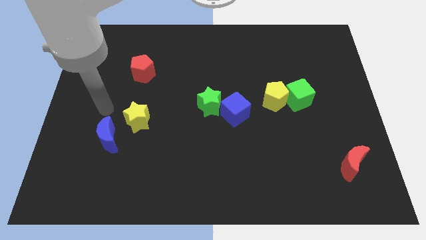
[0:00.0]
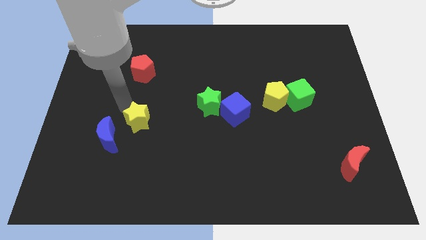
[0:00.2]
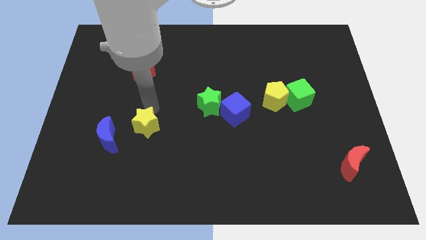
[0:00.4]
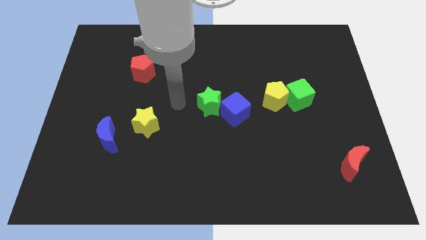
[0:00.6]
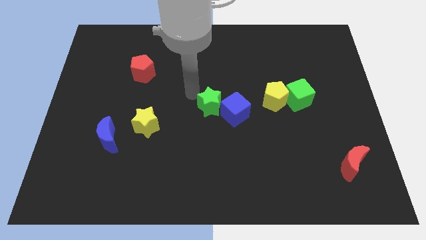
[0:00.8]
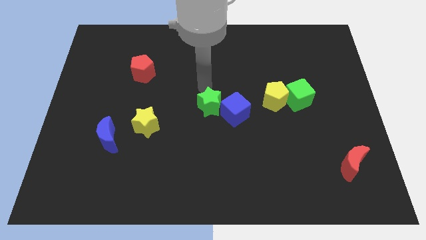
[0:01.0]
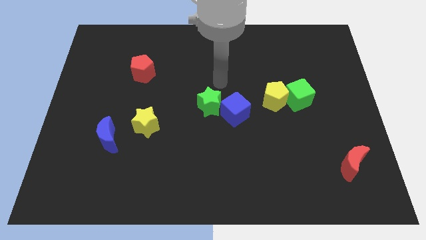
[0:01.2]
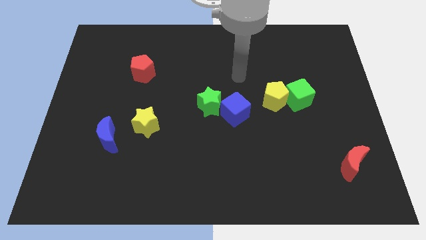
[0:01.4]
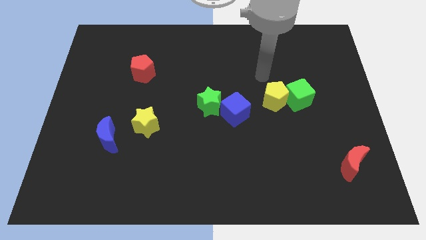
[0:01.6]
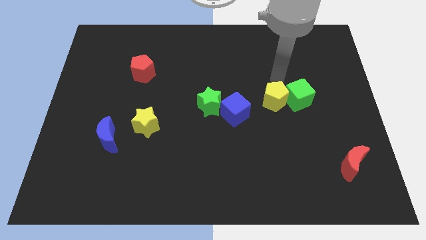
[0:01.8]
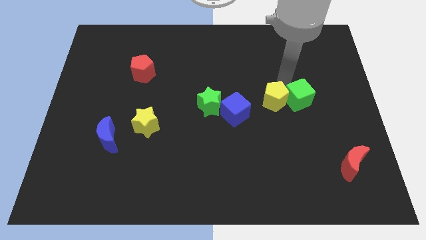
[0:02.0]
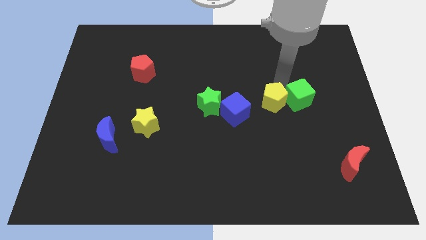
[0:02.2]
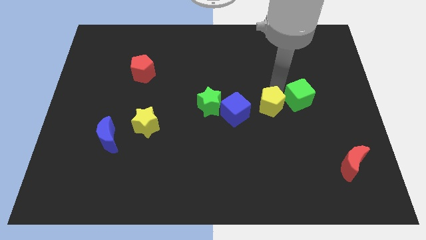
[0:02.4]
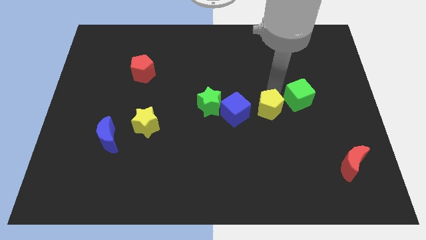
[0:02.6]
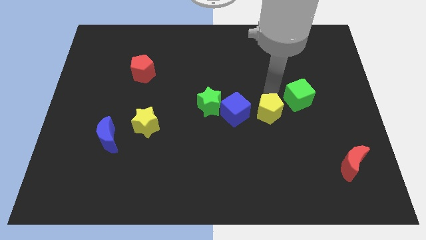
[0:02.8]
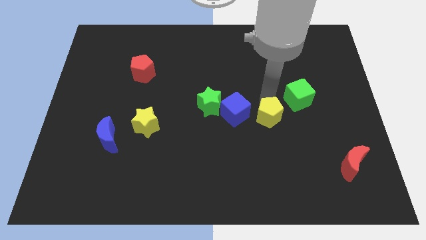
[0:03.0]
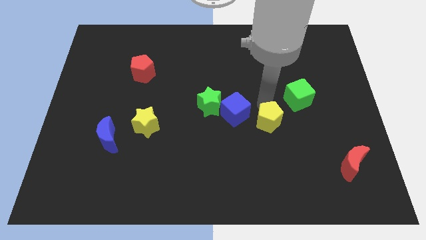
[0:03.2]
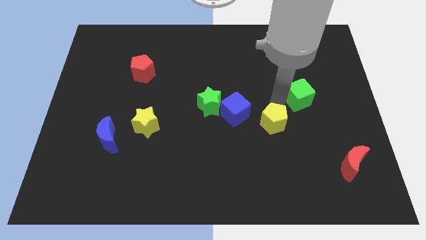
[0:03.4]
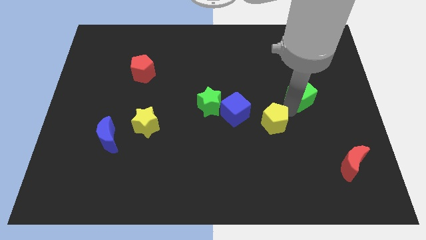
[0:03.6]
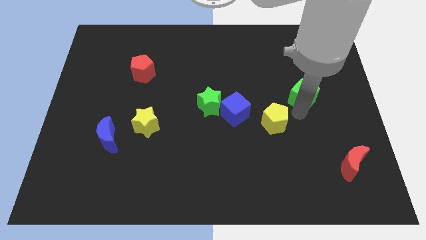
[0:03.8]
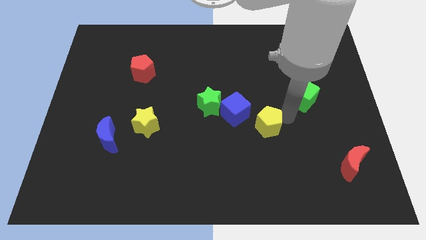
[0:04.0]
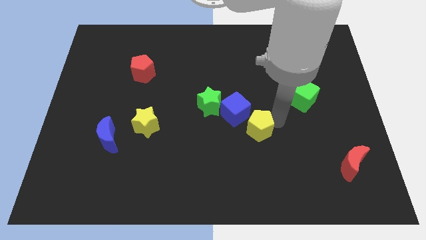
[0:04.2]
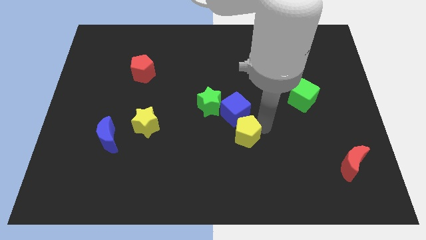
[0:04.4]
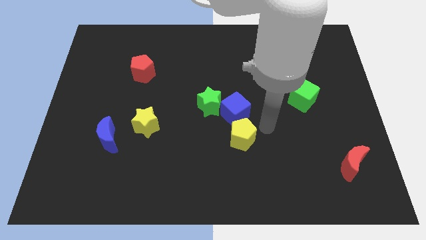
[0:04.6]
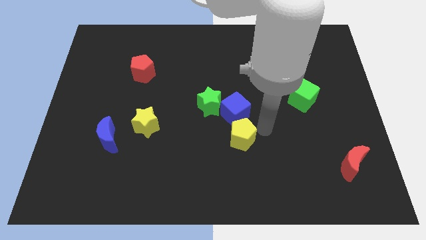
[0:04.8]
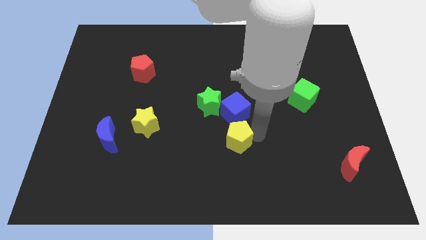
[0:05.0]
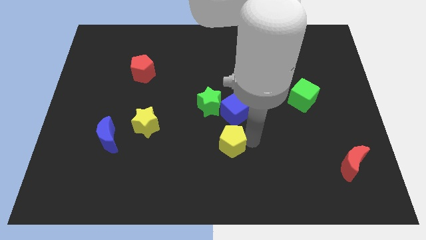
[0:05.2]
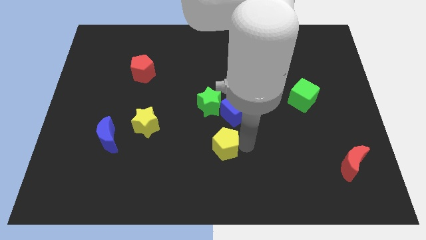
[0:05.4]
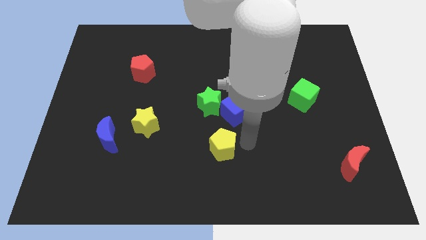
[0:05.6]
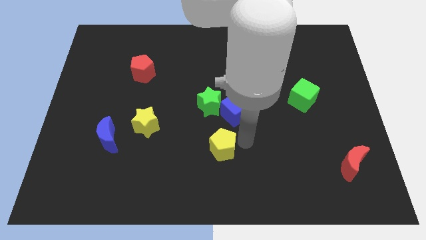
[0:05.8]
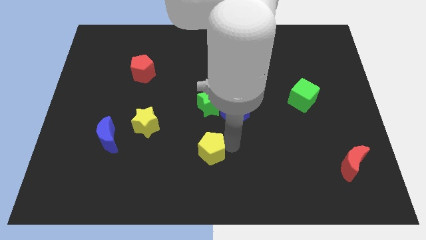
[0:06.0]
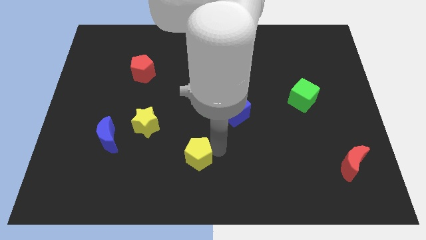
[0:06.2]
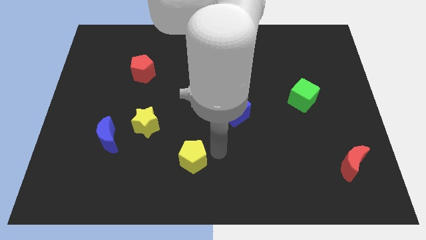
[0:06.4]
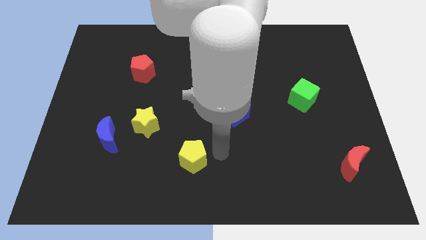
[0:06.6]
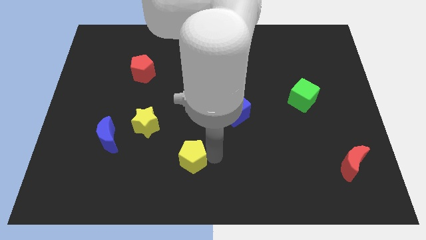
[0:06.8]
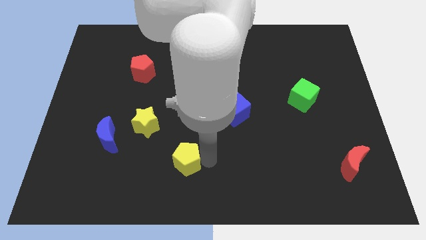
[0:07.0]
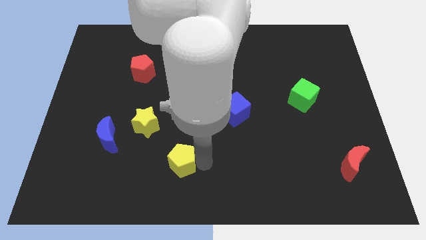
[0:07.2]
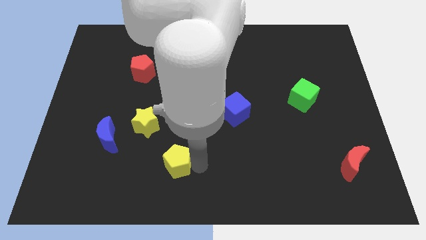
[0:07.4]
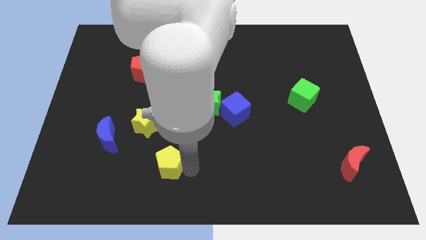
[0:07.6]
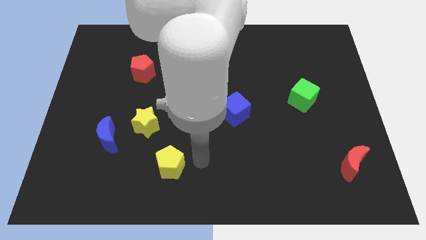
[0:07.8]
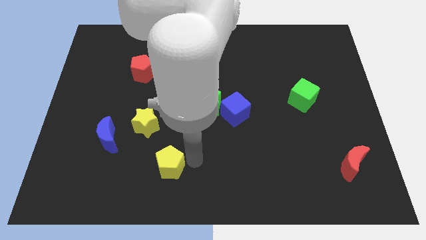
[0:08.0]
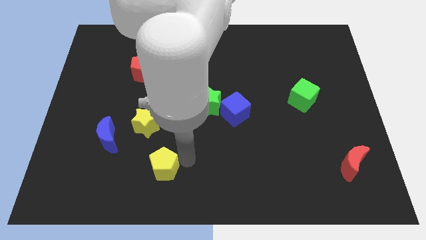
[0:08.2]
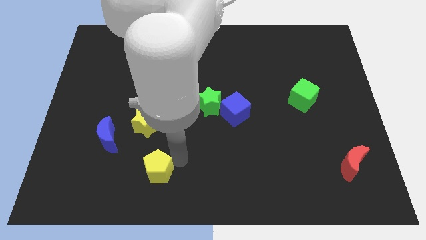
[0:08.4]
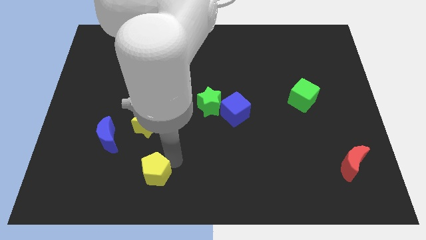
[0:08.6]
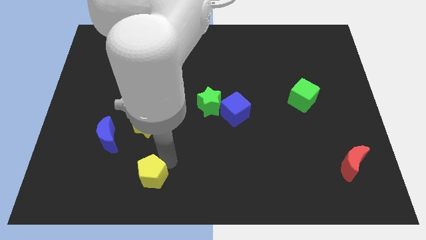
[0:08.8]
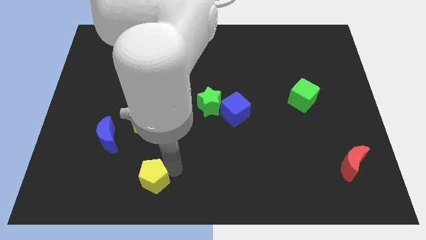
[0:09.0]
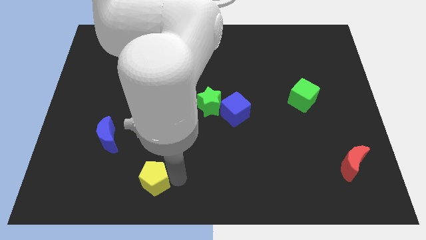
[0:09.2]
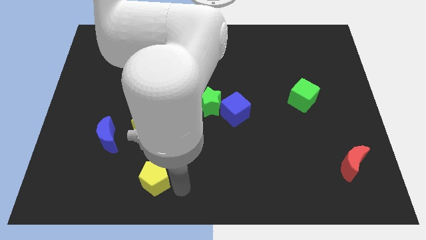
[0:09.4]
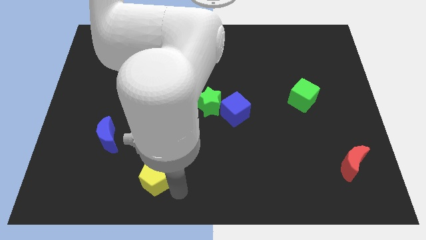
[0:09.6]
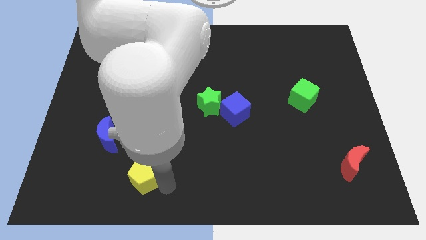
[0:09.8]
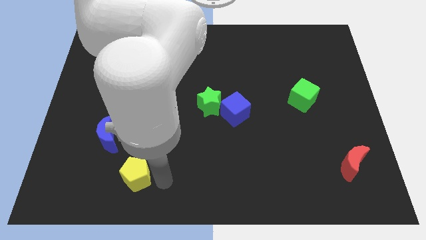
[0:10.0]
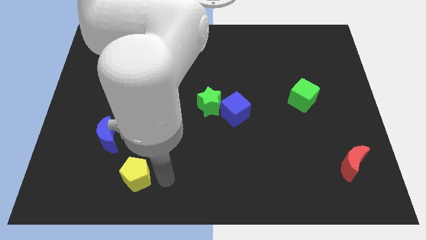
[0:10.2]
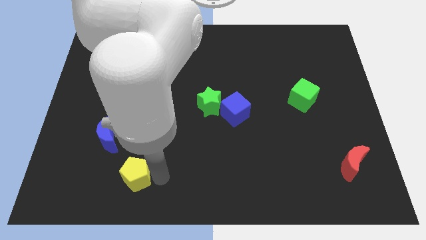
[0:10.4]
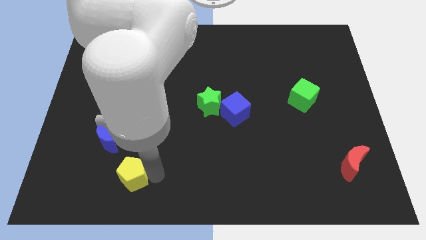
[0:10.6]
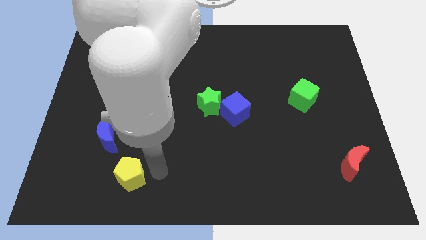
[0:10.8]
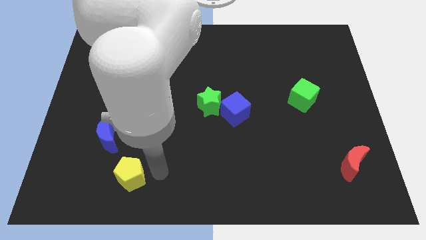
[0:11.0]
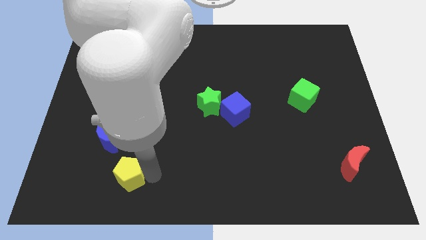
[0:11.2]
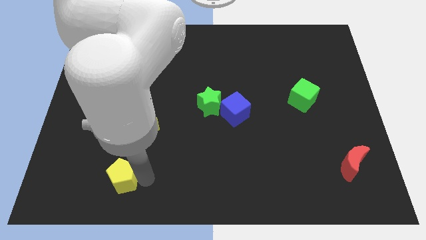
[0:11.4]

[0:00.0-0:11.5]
push the yellow pentagon to the bottom of the blue moon
